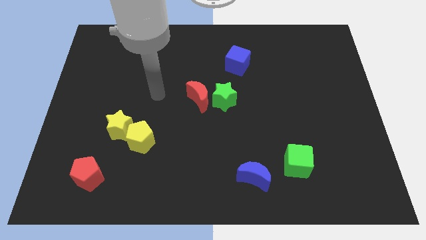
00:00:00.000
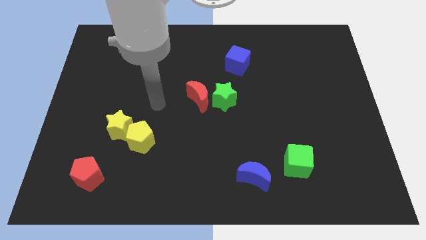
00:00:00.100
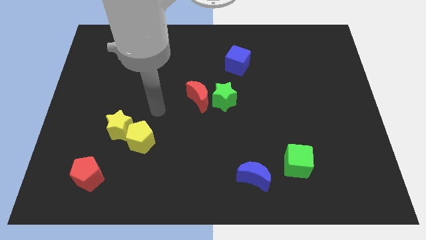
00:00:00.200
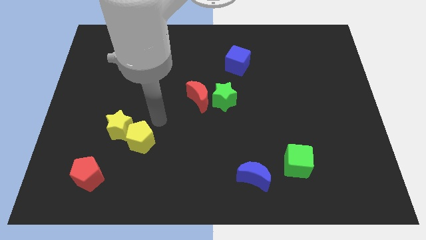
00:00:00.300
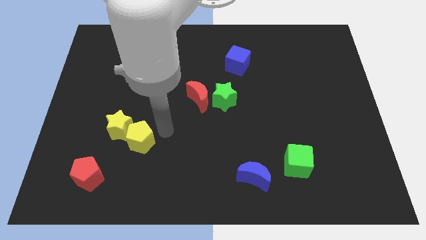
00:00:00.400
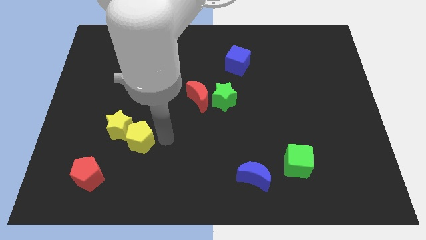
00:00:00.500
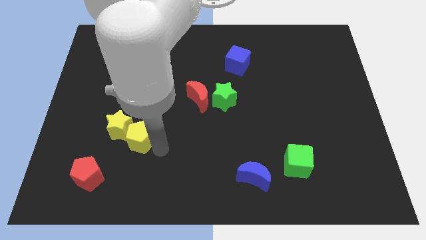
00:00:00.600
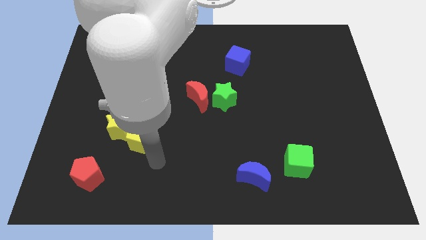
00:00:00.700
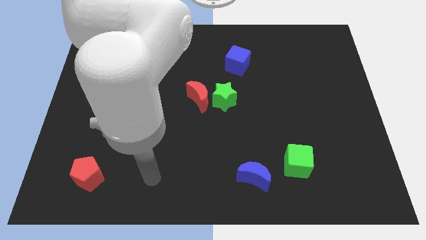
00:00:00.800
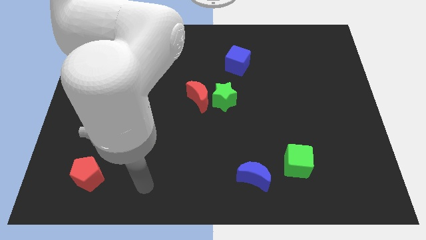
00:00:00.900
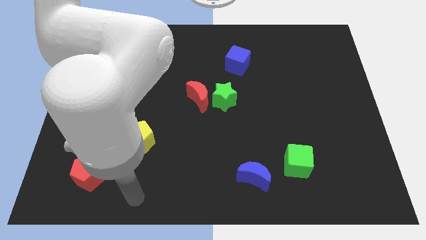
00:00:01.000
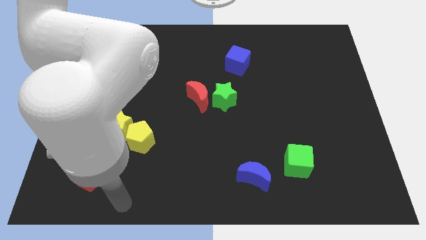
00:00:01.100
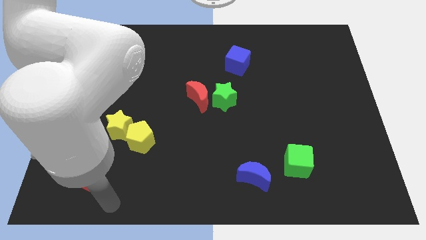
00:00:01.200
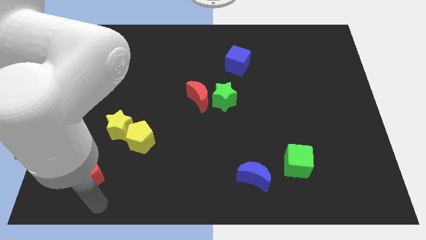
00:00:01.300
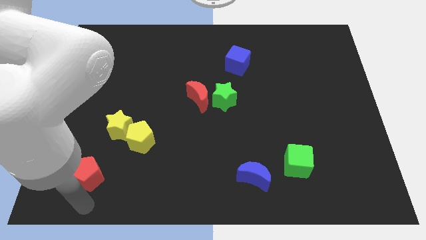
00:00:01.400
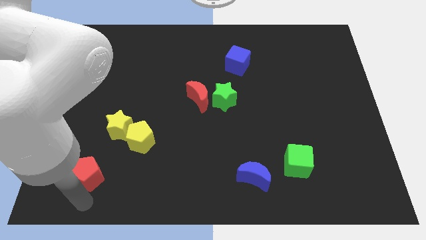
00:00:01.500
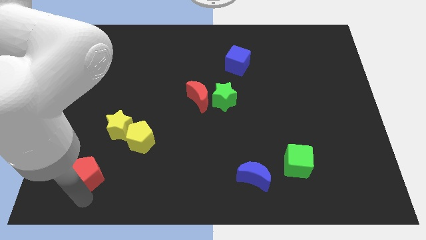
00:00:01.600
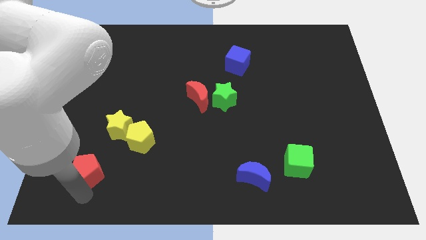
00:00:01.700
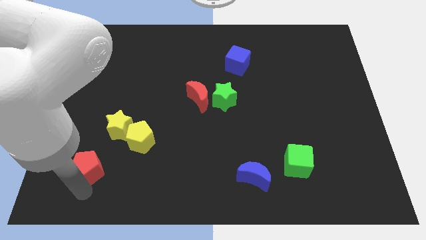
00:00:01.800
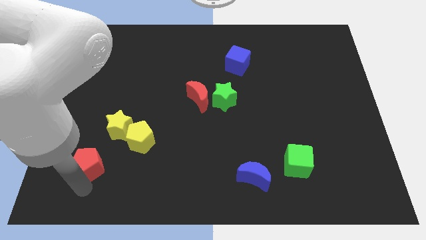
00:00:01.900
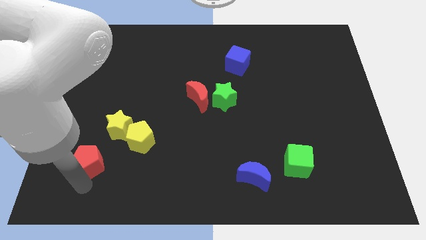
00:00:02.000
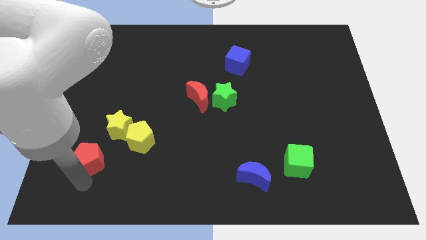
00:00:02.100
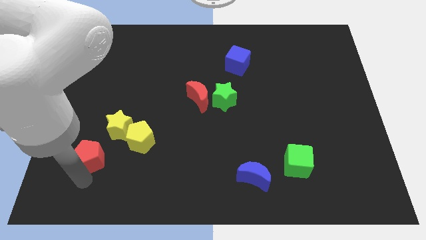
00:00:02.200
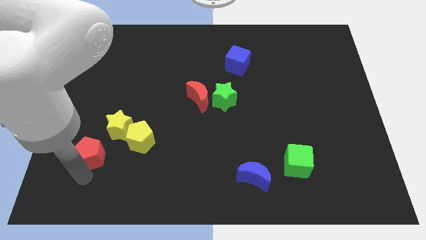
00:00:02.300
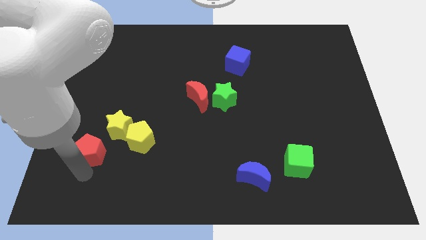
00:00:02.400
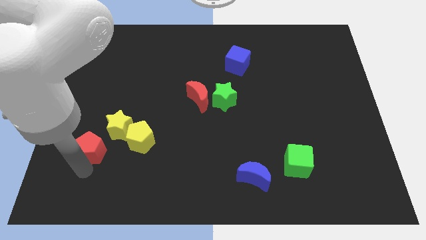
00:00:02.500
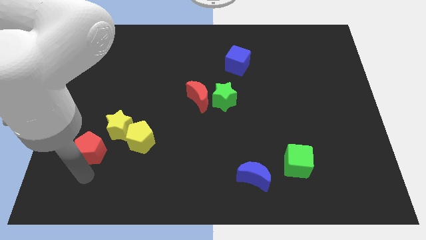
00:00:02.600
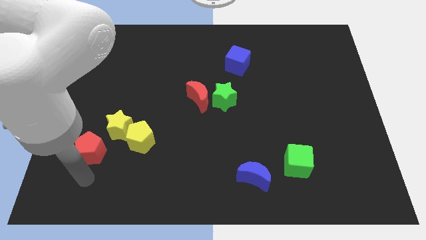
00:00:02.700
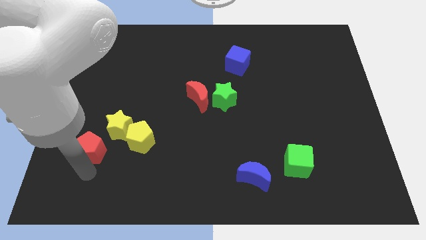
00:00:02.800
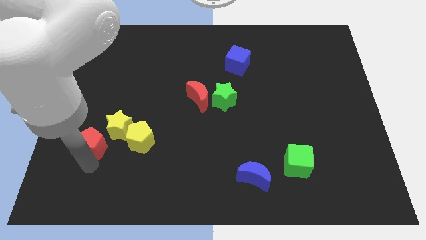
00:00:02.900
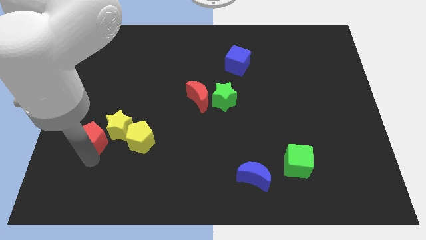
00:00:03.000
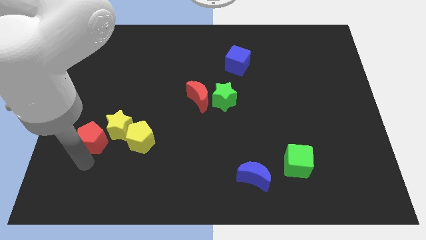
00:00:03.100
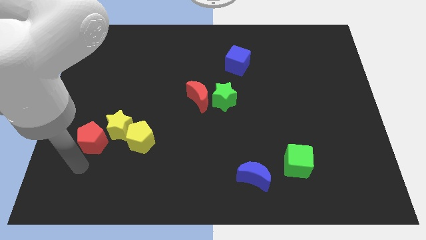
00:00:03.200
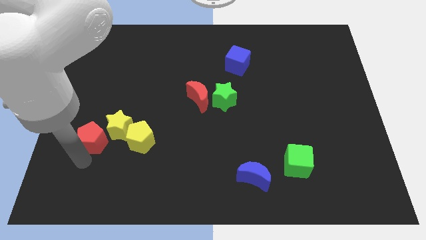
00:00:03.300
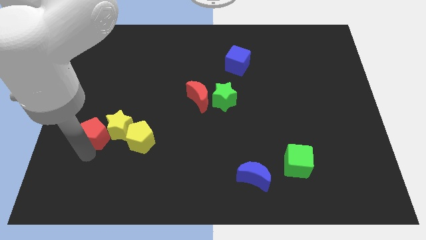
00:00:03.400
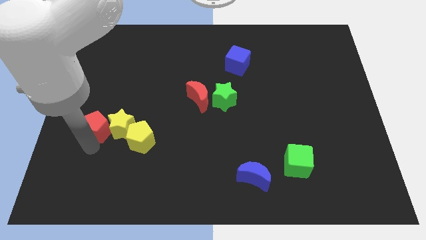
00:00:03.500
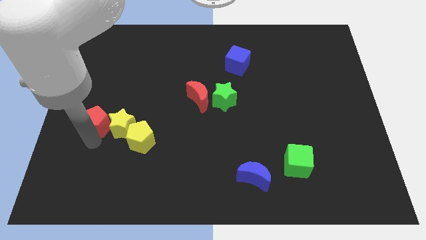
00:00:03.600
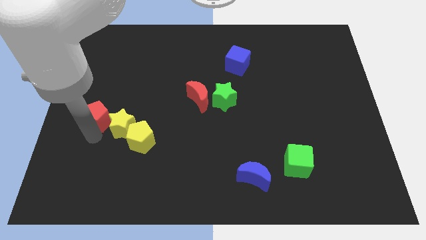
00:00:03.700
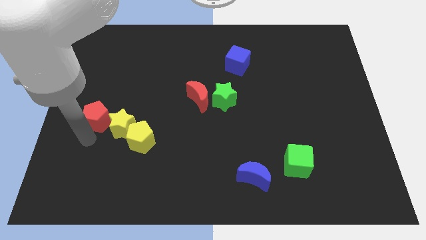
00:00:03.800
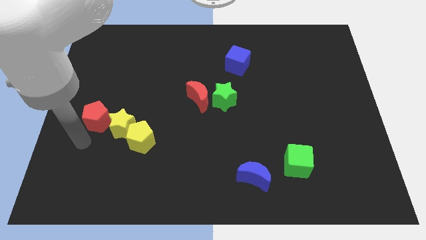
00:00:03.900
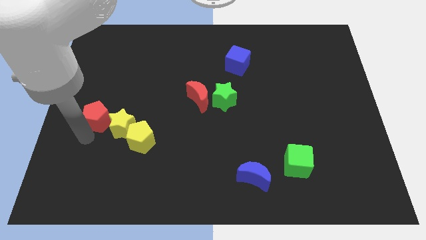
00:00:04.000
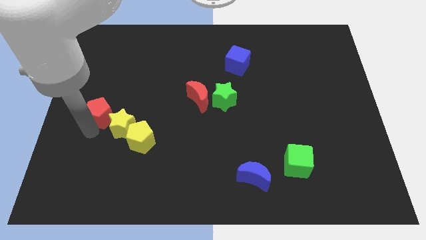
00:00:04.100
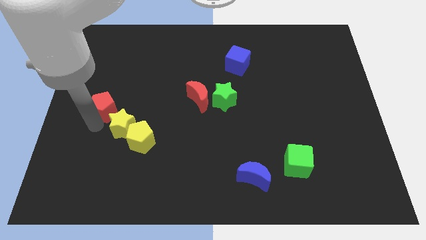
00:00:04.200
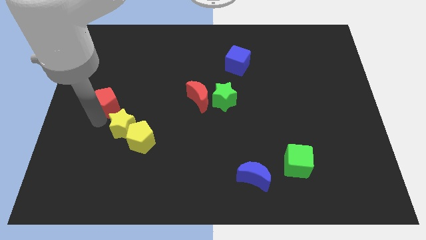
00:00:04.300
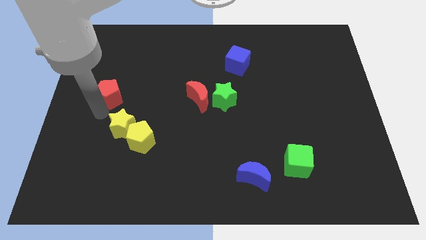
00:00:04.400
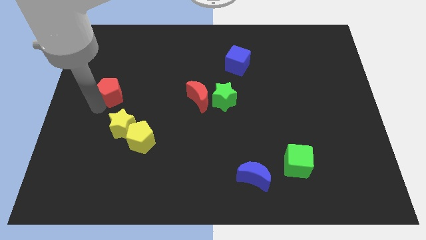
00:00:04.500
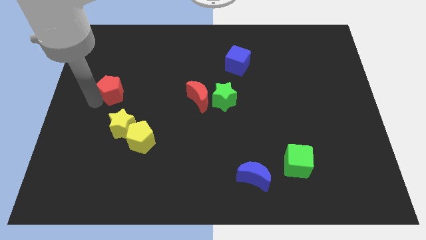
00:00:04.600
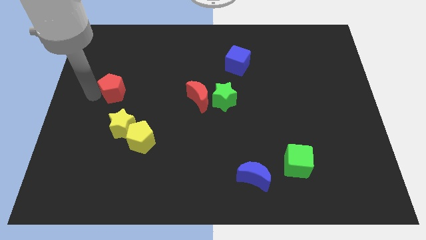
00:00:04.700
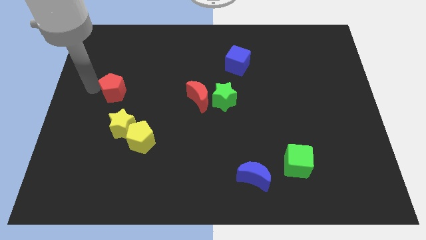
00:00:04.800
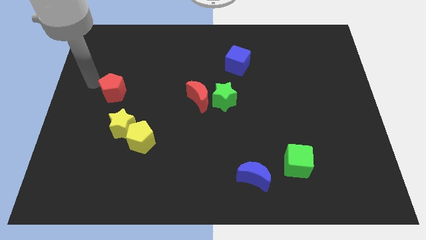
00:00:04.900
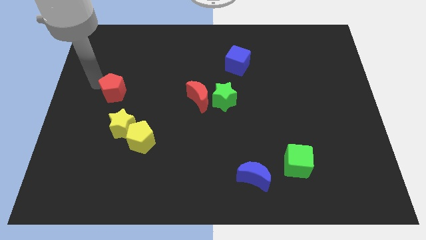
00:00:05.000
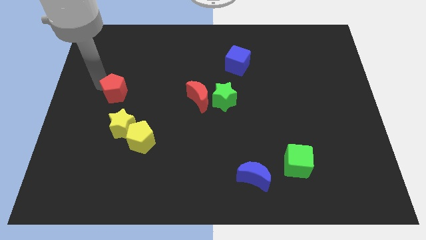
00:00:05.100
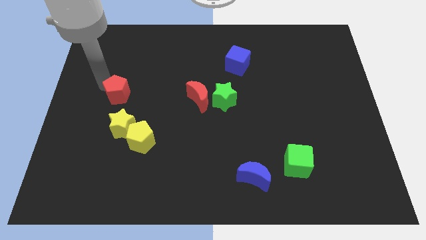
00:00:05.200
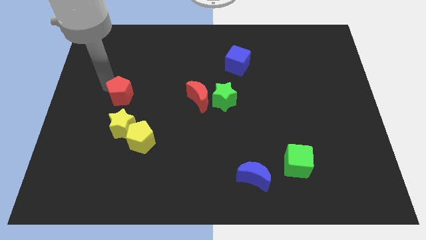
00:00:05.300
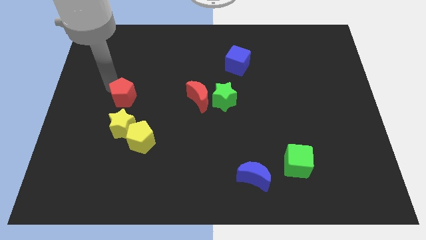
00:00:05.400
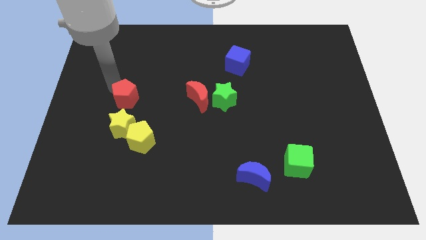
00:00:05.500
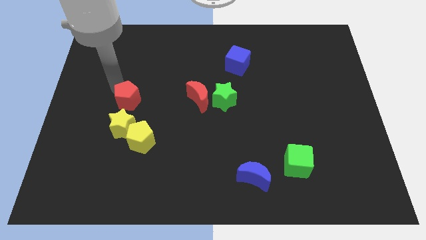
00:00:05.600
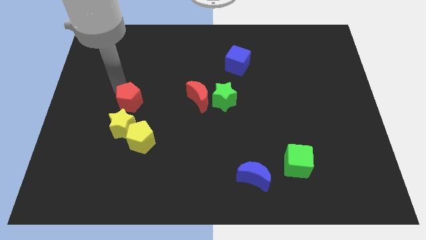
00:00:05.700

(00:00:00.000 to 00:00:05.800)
move the red pentagon to the top right side of the yellow star

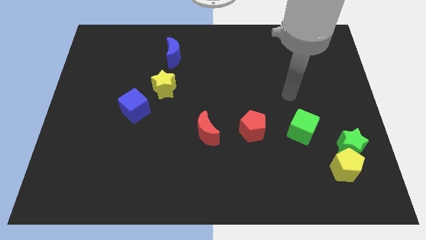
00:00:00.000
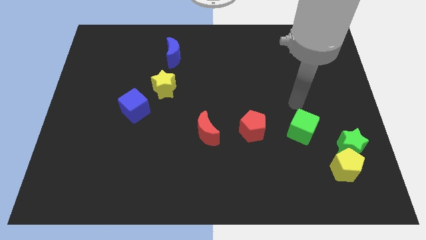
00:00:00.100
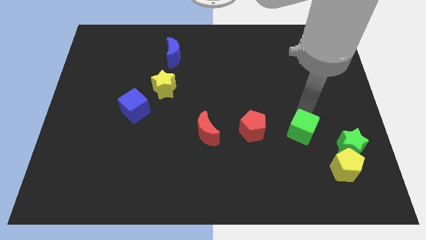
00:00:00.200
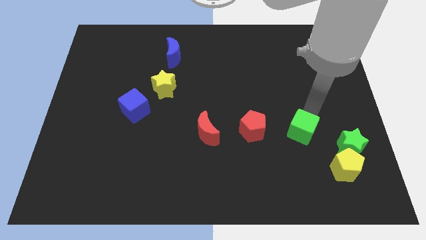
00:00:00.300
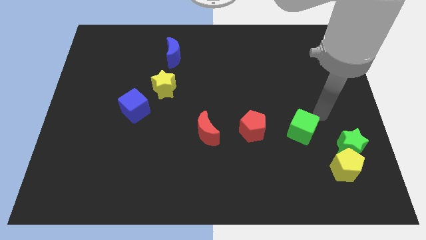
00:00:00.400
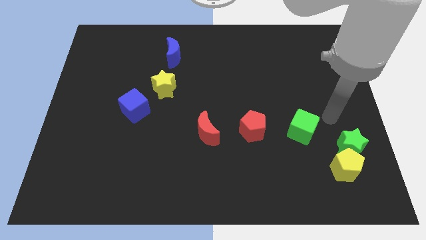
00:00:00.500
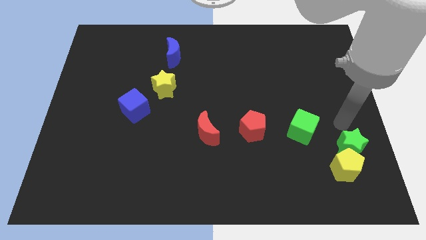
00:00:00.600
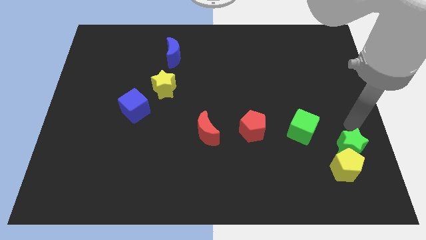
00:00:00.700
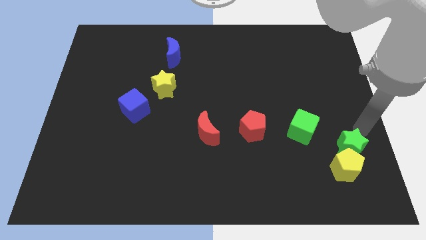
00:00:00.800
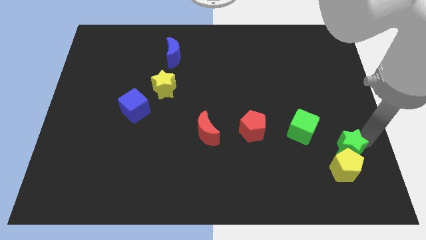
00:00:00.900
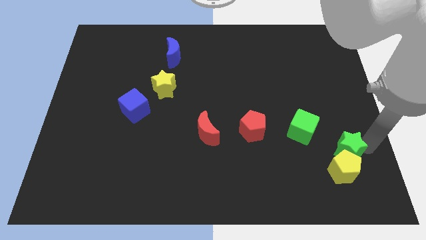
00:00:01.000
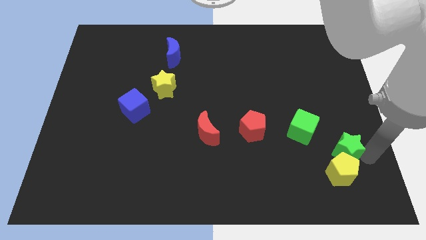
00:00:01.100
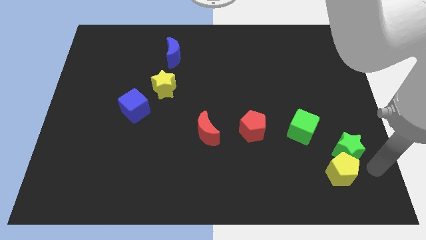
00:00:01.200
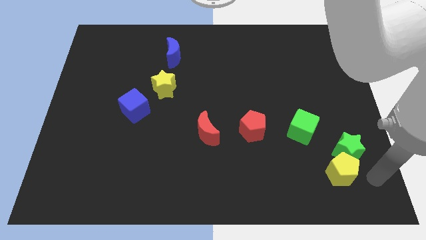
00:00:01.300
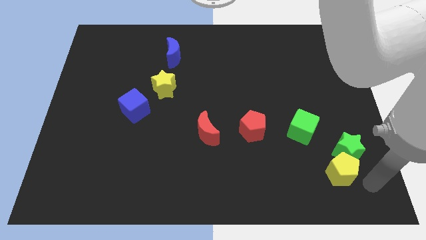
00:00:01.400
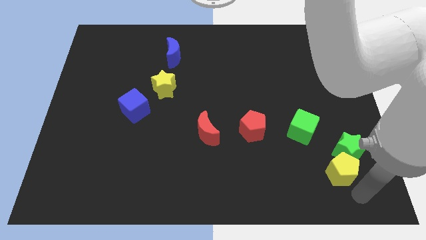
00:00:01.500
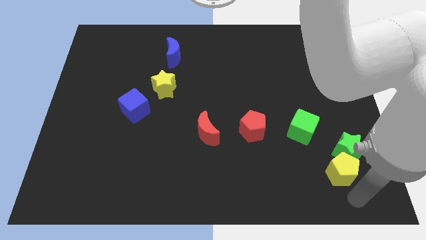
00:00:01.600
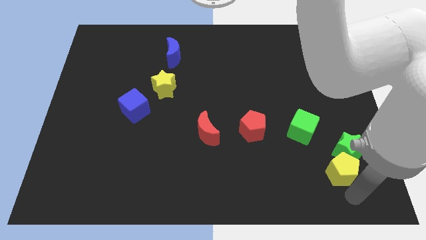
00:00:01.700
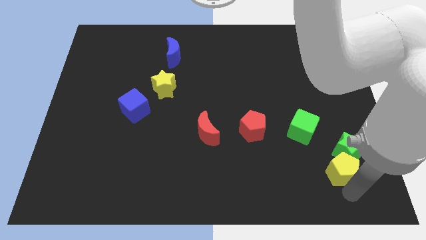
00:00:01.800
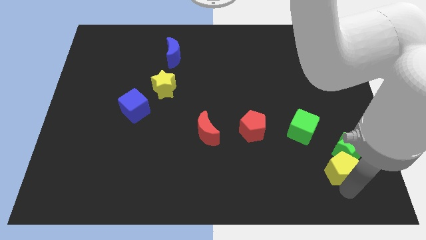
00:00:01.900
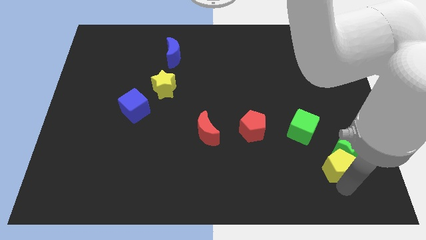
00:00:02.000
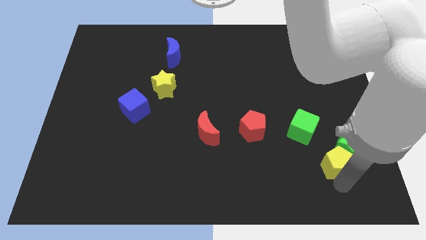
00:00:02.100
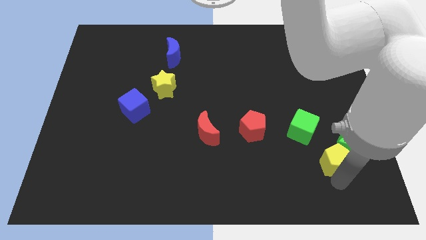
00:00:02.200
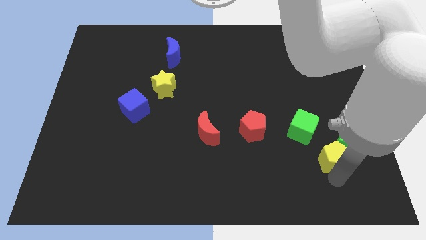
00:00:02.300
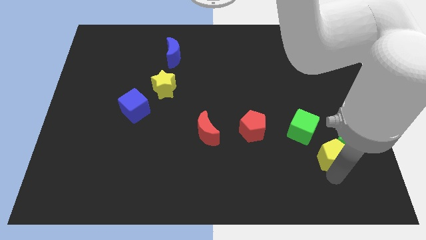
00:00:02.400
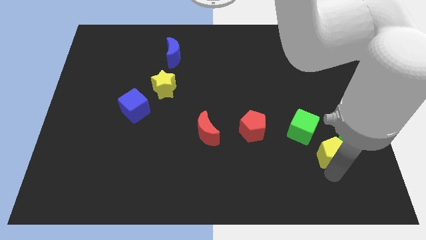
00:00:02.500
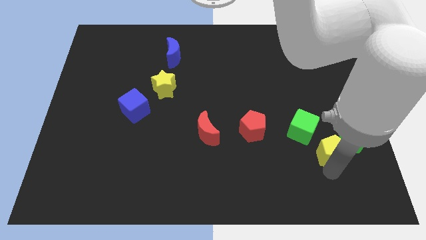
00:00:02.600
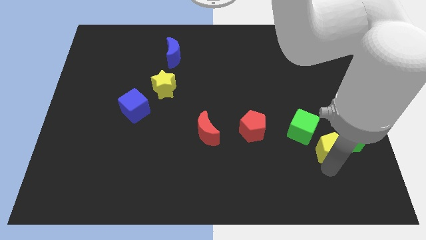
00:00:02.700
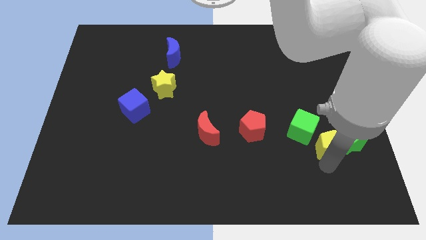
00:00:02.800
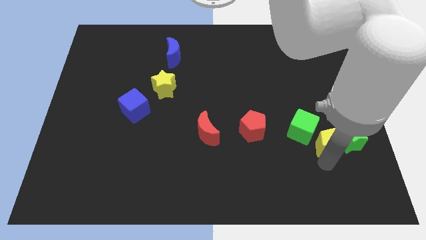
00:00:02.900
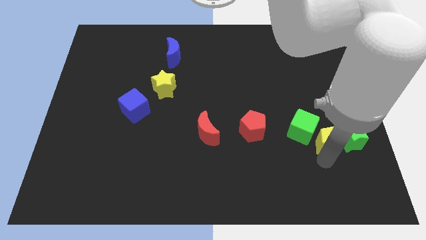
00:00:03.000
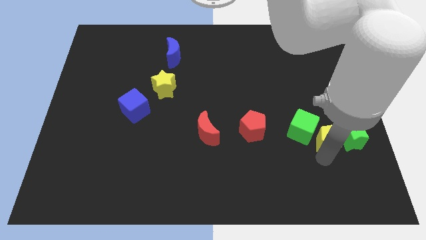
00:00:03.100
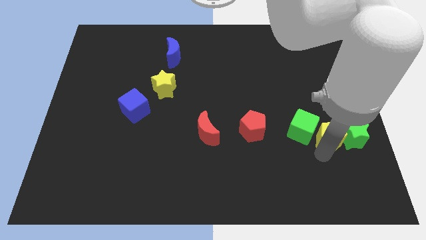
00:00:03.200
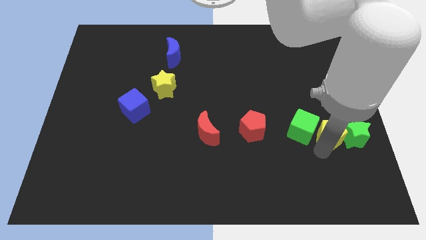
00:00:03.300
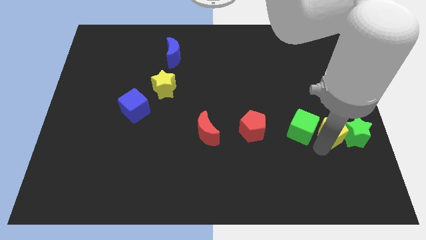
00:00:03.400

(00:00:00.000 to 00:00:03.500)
put the yellow pentagon diagonally up and to the right of the green cube
